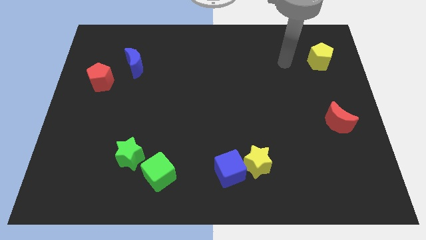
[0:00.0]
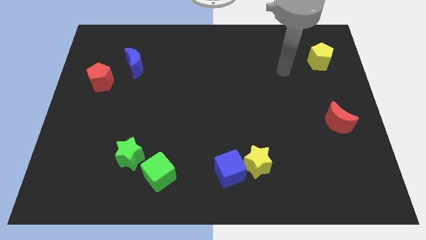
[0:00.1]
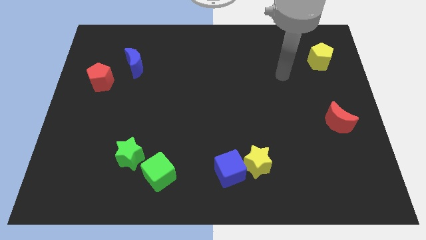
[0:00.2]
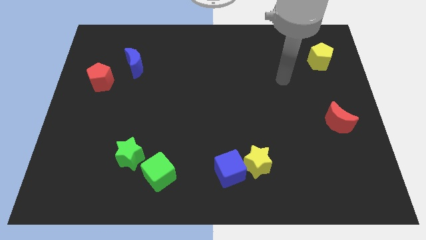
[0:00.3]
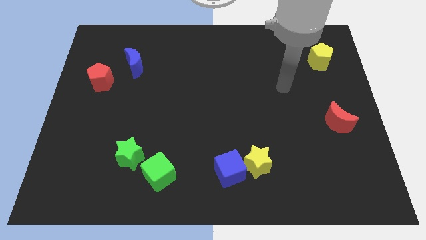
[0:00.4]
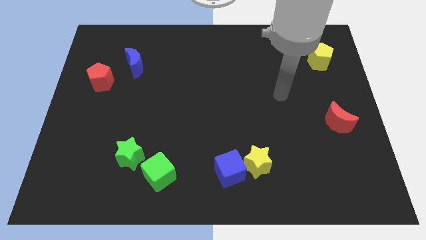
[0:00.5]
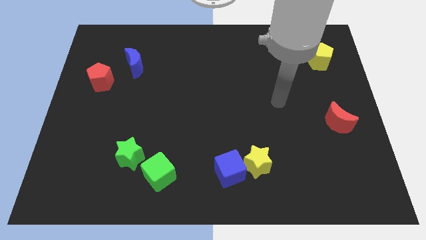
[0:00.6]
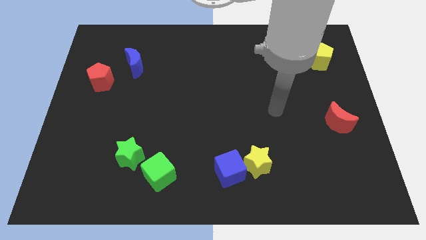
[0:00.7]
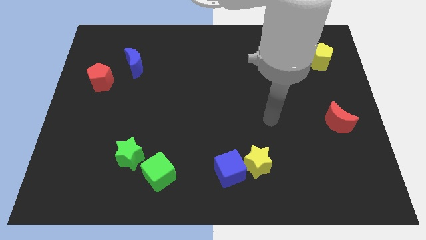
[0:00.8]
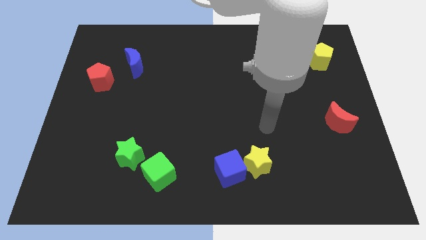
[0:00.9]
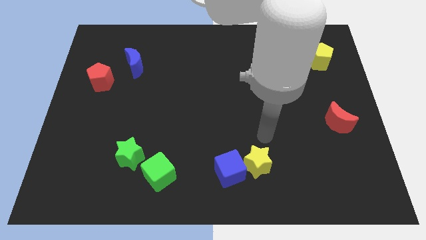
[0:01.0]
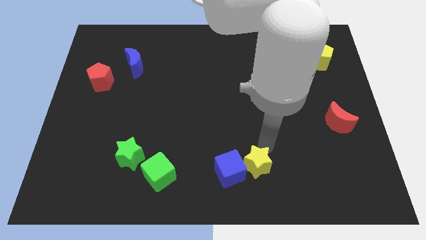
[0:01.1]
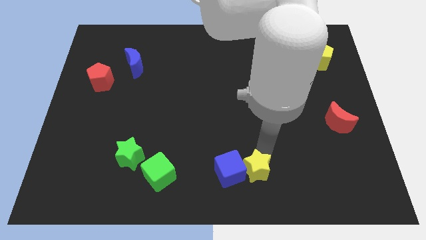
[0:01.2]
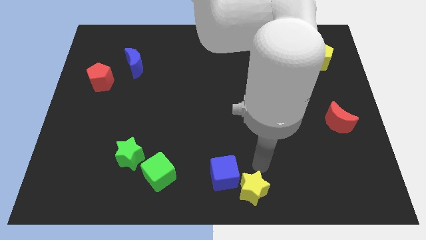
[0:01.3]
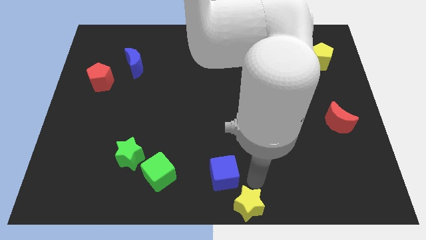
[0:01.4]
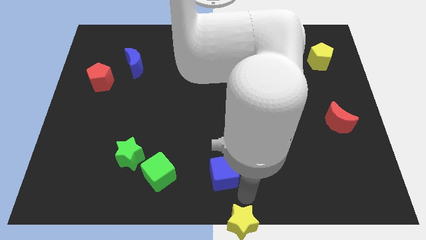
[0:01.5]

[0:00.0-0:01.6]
pull the blue cube apart from the yellow star

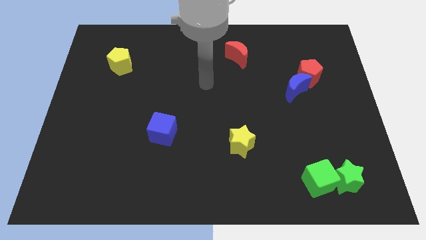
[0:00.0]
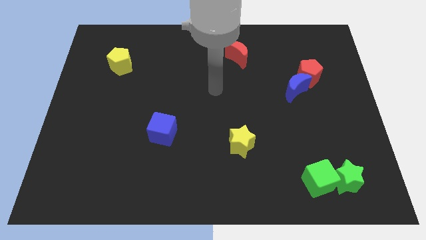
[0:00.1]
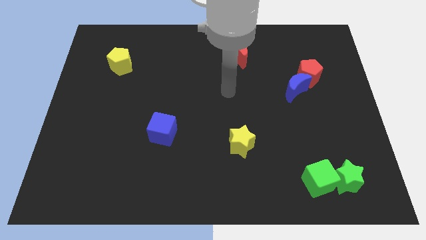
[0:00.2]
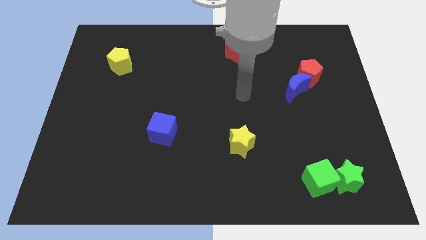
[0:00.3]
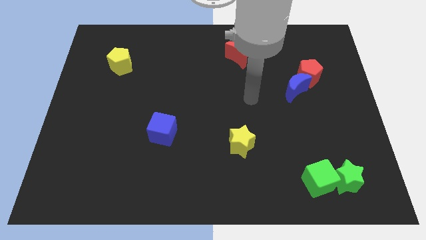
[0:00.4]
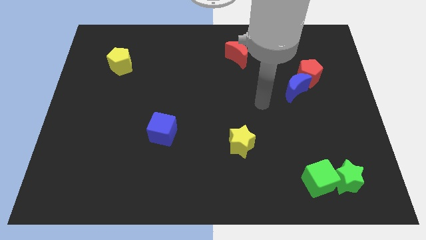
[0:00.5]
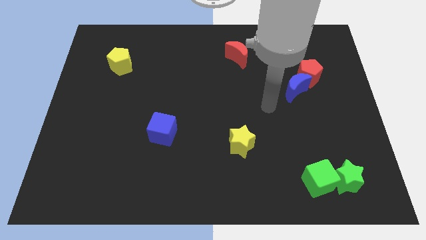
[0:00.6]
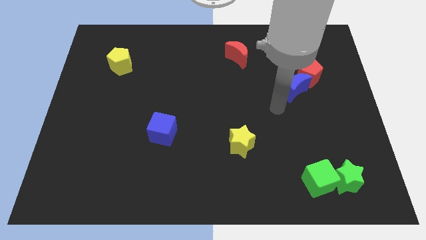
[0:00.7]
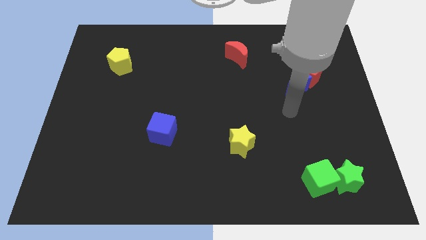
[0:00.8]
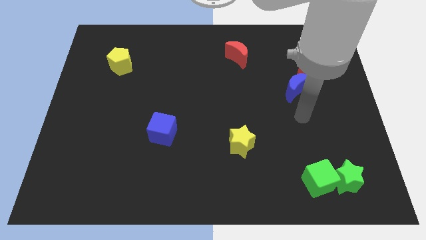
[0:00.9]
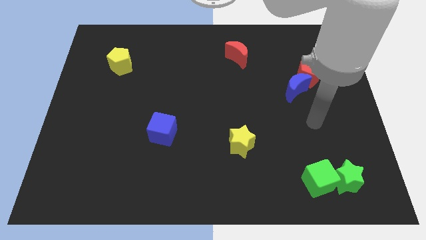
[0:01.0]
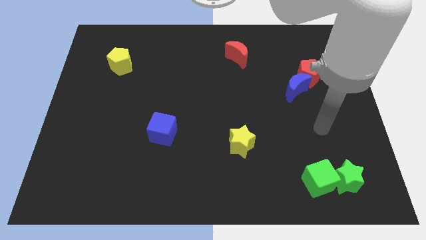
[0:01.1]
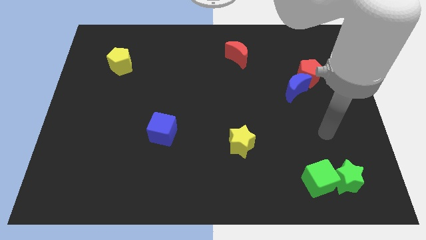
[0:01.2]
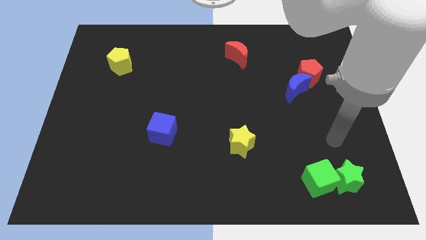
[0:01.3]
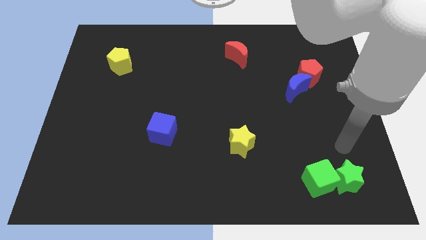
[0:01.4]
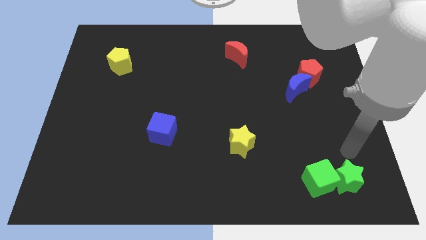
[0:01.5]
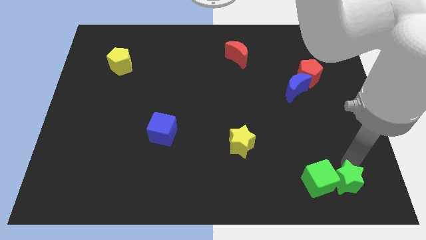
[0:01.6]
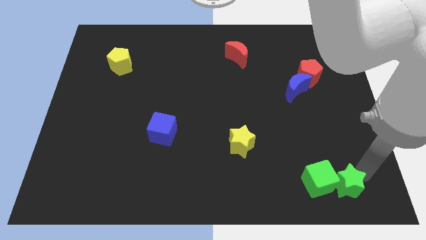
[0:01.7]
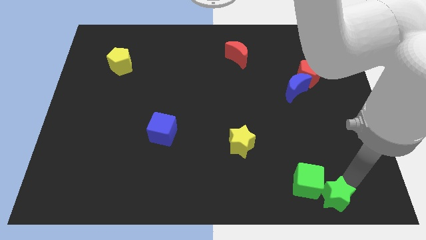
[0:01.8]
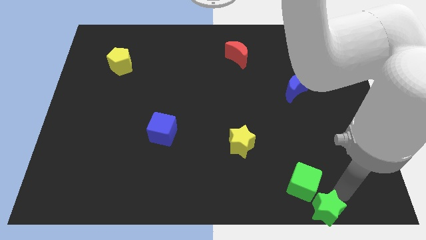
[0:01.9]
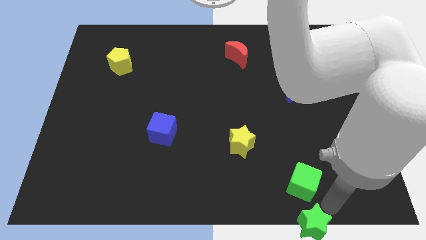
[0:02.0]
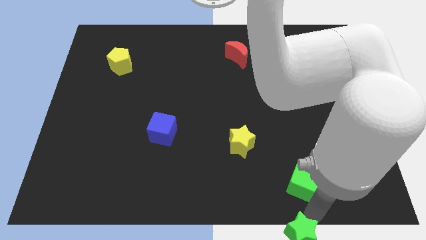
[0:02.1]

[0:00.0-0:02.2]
separate the green cube from the green star

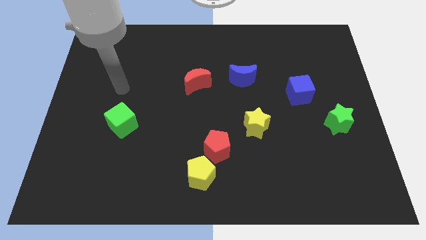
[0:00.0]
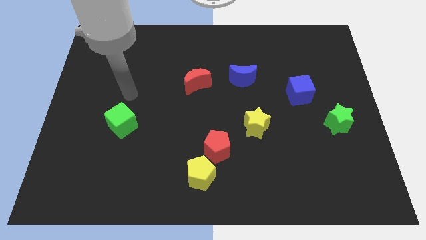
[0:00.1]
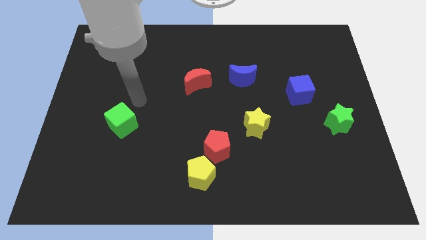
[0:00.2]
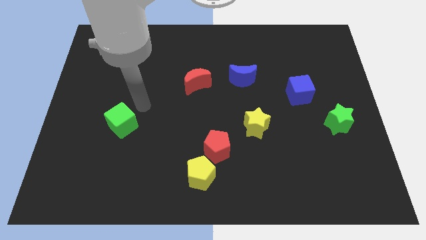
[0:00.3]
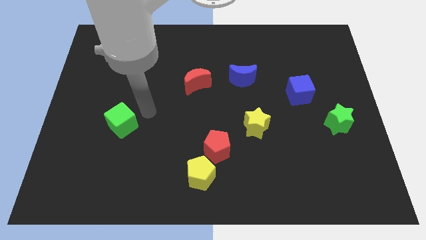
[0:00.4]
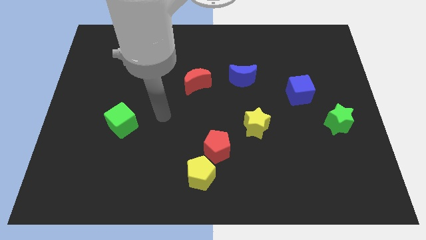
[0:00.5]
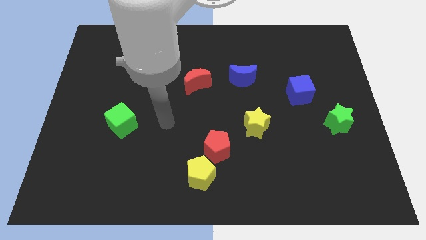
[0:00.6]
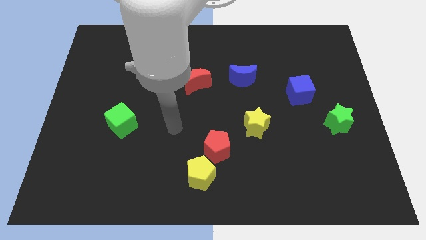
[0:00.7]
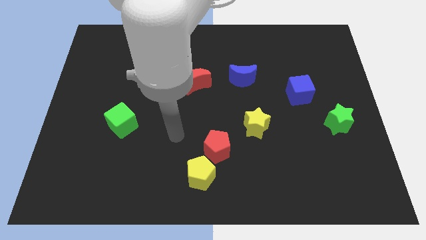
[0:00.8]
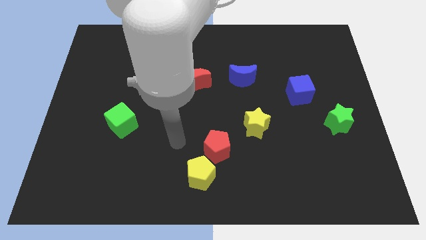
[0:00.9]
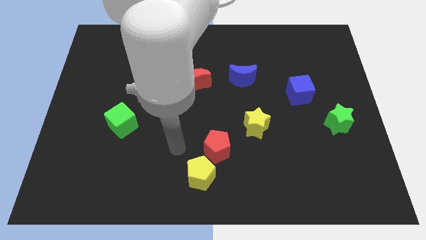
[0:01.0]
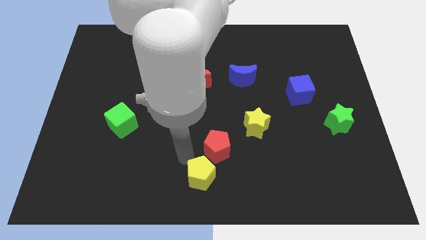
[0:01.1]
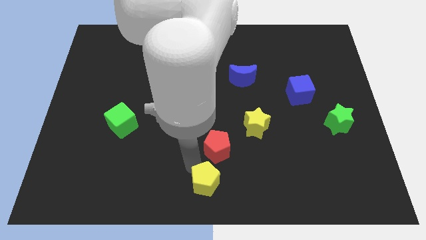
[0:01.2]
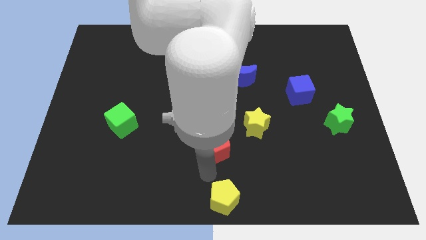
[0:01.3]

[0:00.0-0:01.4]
move the red pentagon away from the yellow pentagon

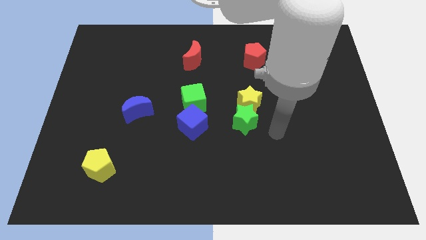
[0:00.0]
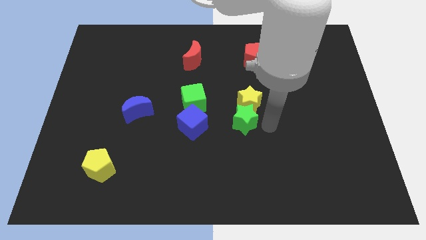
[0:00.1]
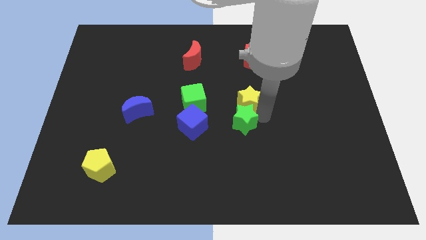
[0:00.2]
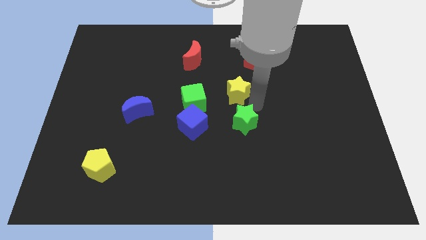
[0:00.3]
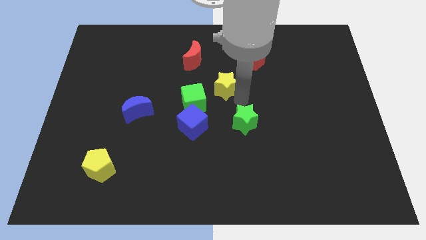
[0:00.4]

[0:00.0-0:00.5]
move the green star away from the yellow star

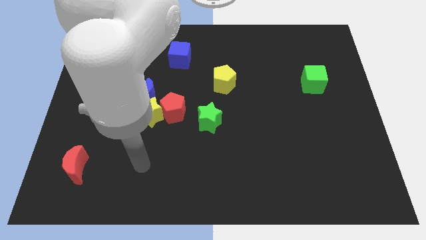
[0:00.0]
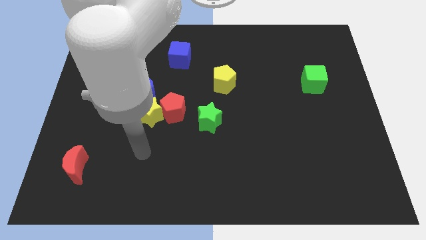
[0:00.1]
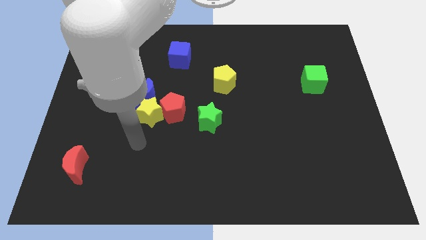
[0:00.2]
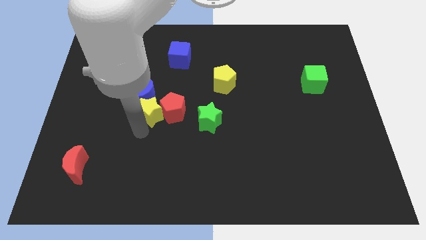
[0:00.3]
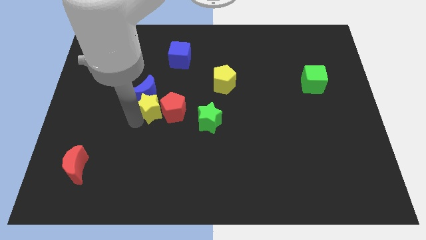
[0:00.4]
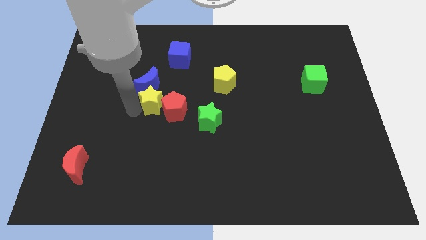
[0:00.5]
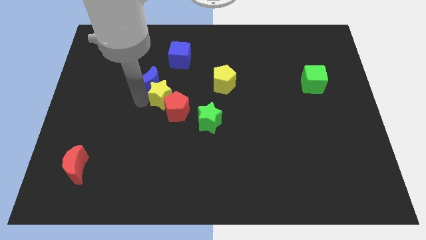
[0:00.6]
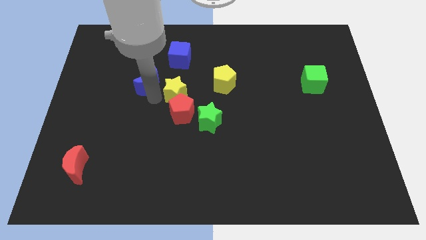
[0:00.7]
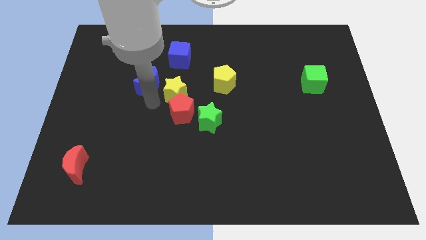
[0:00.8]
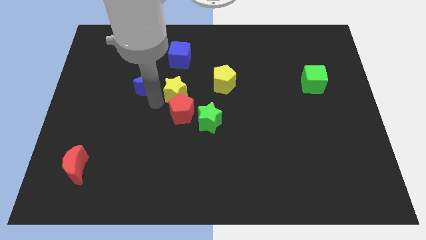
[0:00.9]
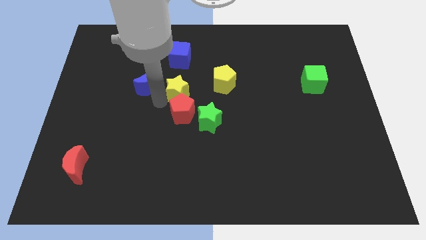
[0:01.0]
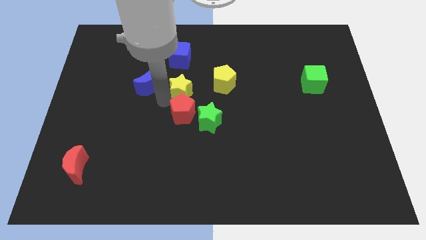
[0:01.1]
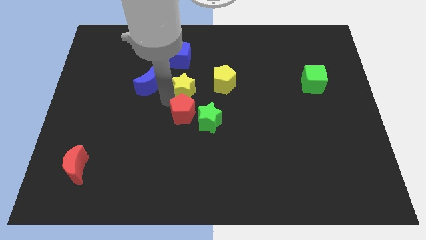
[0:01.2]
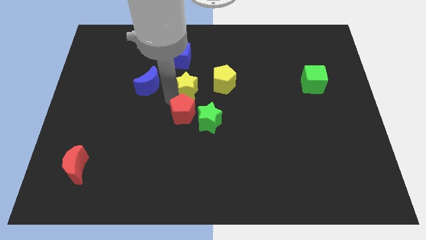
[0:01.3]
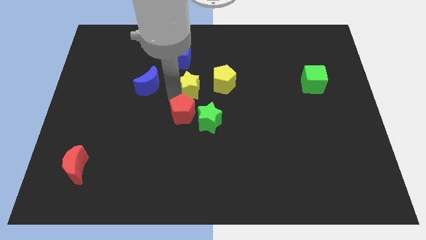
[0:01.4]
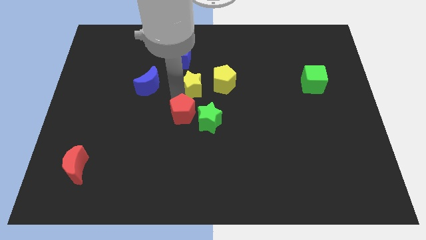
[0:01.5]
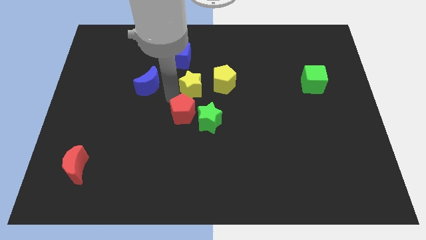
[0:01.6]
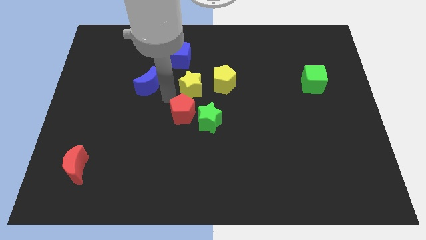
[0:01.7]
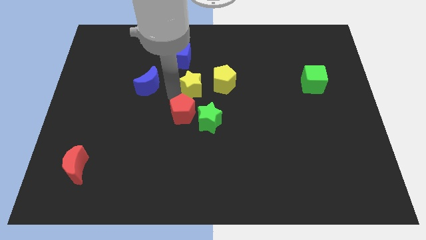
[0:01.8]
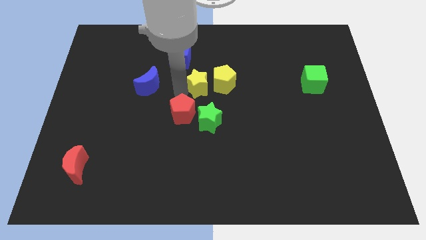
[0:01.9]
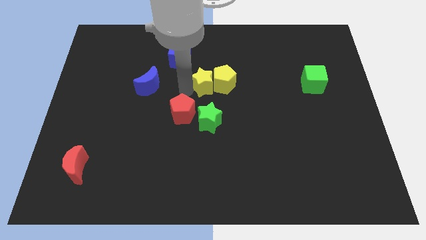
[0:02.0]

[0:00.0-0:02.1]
separate the yellow star from the blue moon and red pentagon

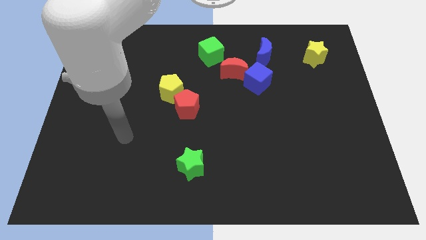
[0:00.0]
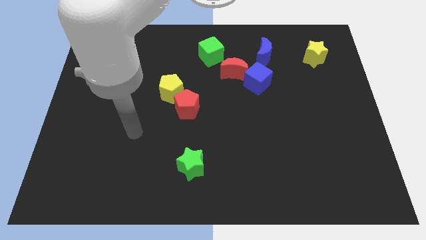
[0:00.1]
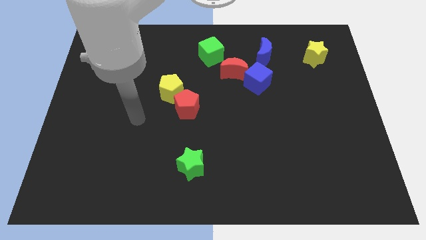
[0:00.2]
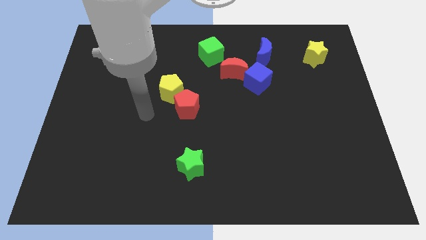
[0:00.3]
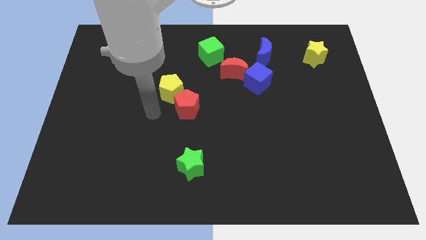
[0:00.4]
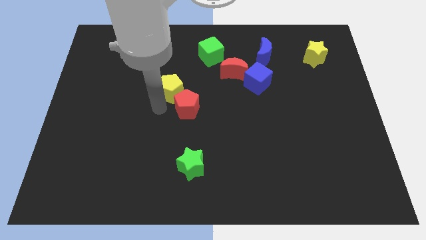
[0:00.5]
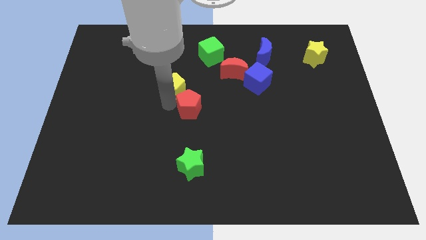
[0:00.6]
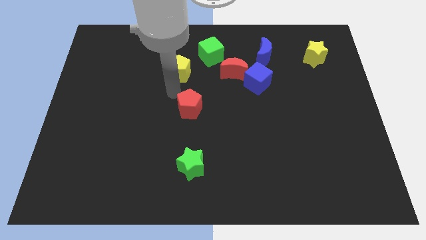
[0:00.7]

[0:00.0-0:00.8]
pull the red pentagon apart from the yellow pentagon

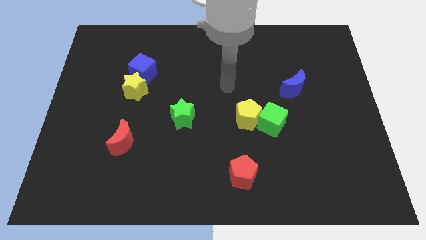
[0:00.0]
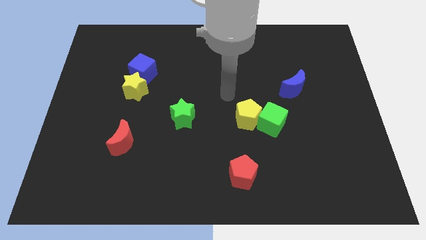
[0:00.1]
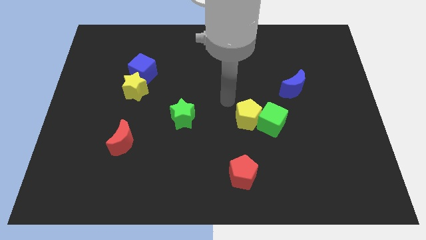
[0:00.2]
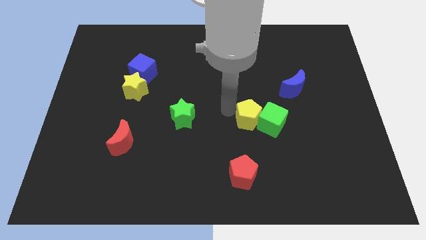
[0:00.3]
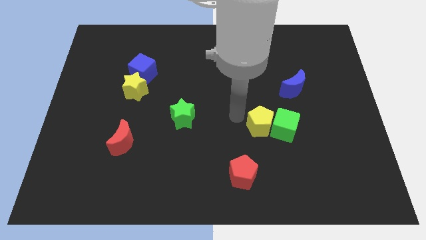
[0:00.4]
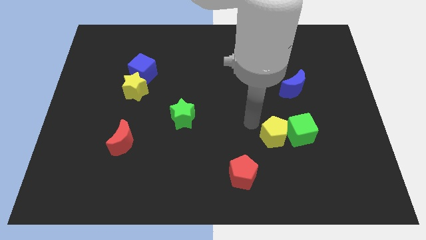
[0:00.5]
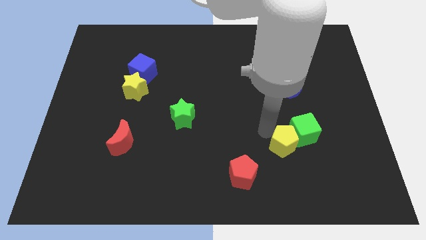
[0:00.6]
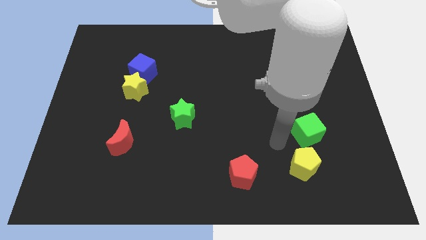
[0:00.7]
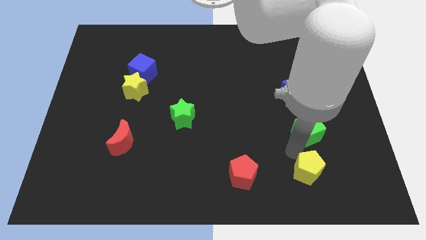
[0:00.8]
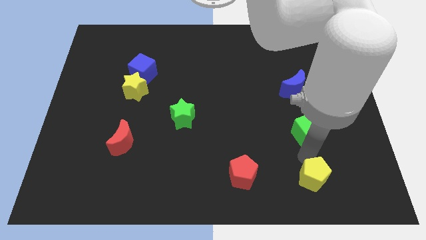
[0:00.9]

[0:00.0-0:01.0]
separate the green cube from the yellow pentagon
